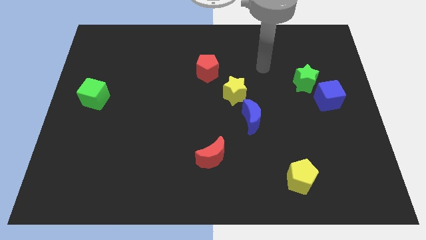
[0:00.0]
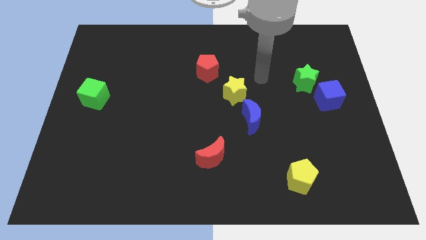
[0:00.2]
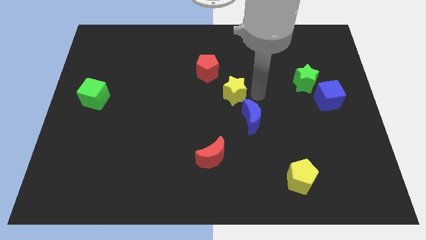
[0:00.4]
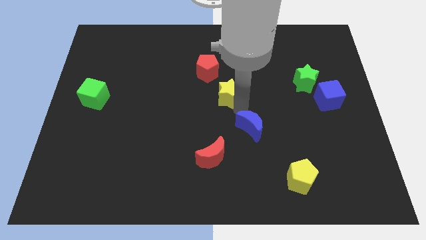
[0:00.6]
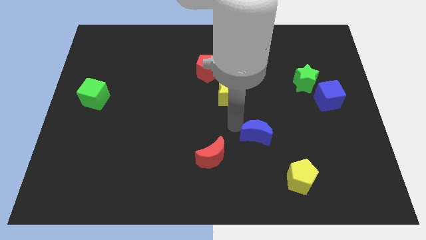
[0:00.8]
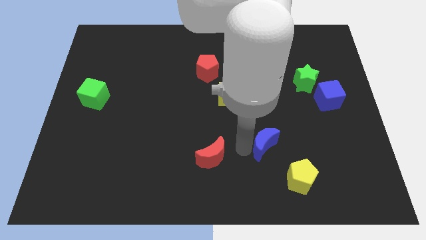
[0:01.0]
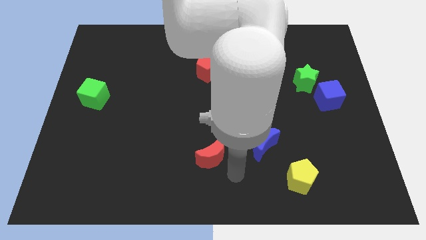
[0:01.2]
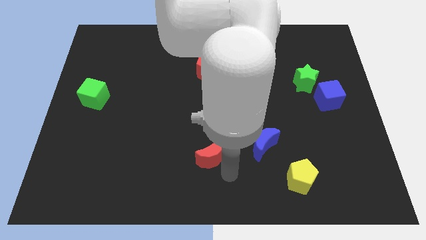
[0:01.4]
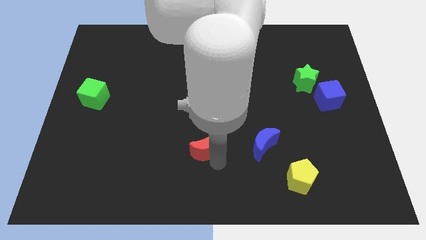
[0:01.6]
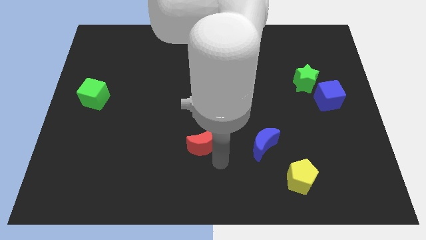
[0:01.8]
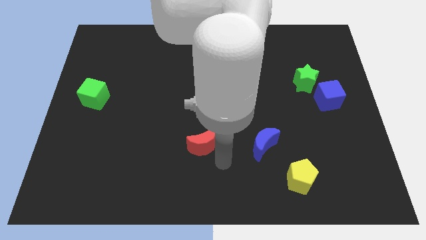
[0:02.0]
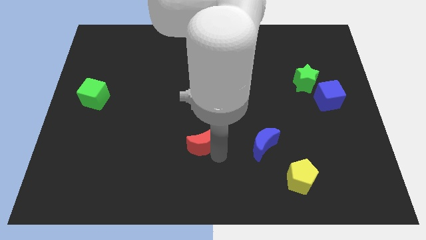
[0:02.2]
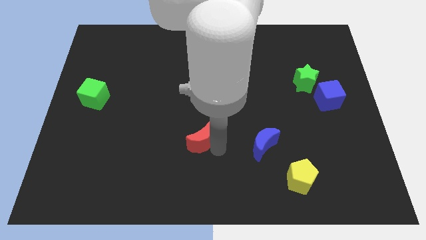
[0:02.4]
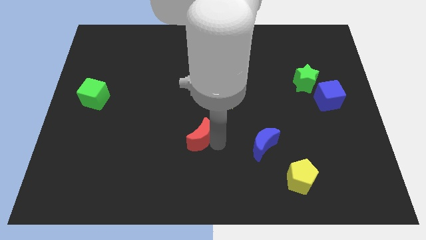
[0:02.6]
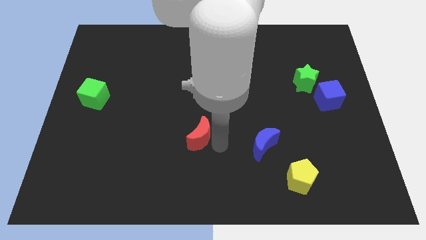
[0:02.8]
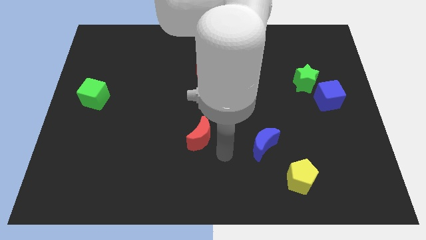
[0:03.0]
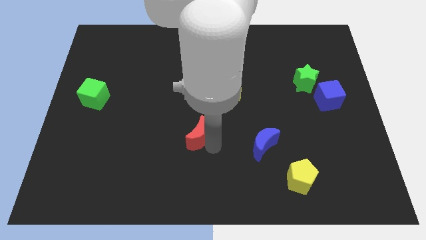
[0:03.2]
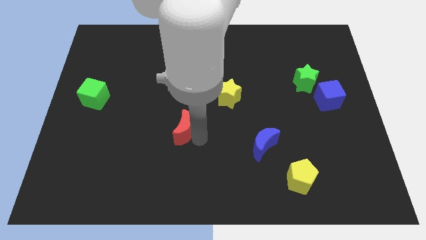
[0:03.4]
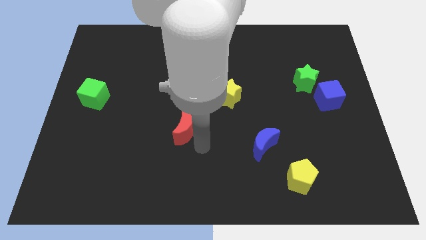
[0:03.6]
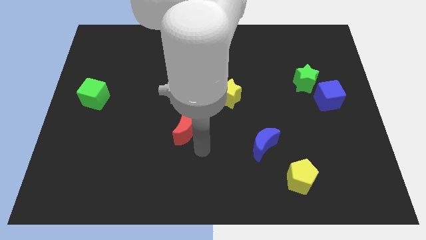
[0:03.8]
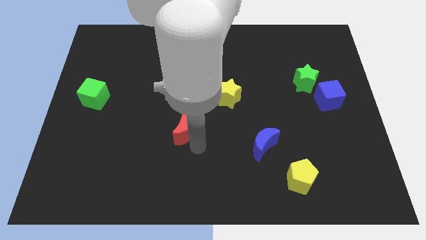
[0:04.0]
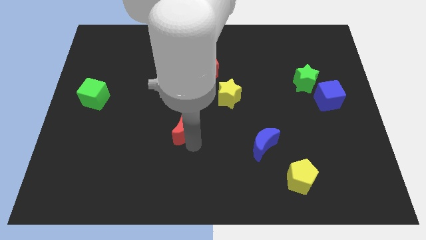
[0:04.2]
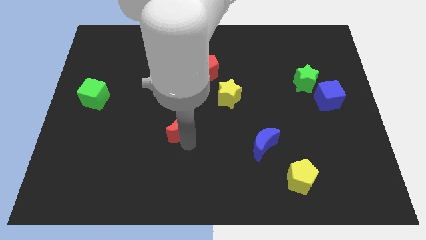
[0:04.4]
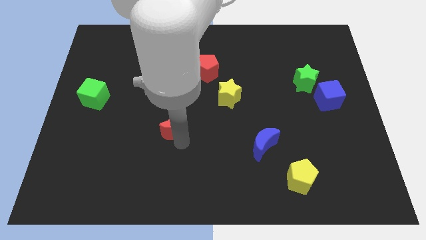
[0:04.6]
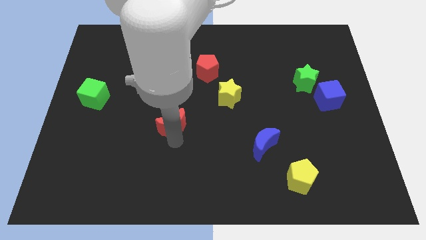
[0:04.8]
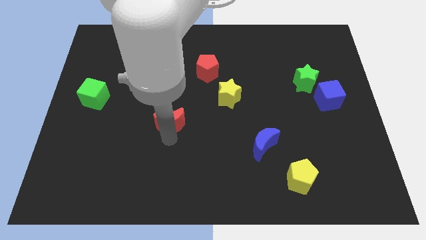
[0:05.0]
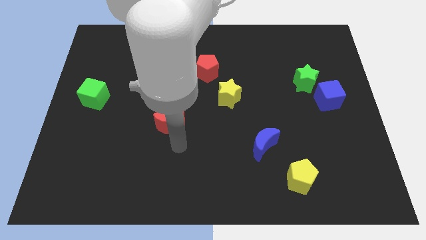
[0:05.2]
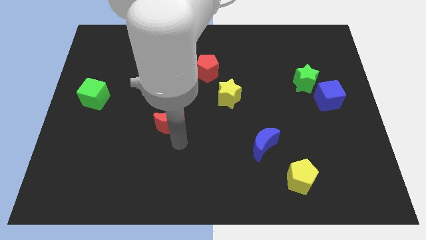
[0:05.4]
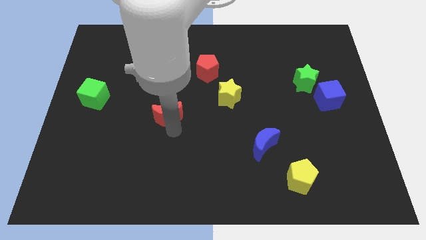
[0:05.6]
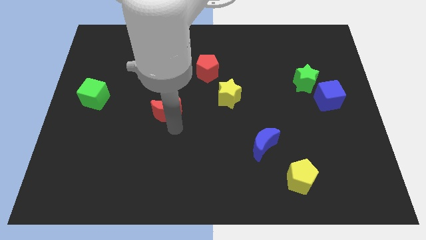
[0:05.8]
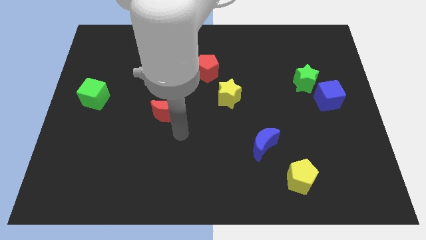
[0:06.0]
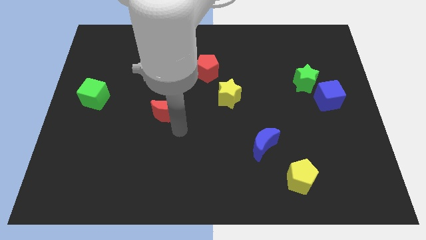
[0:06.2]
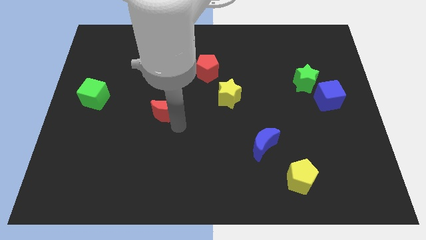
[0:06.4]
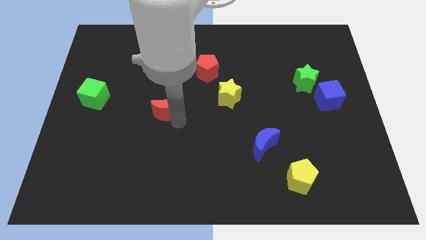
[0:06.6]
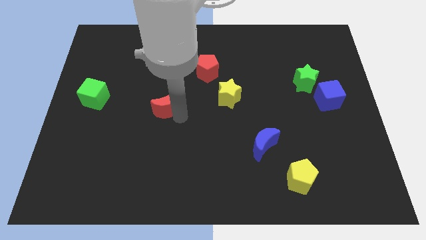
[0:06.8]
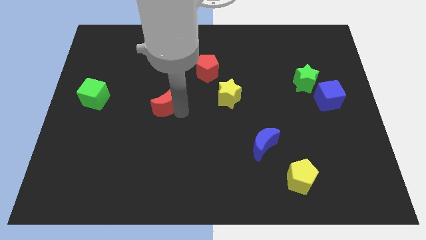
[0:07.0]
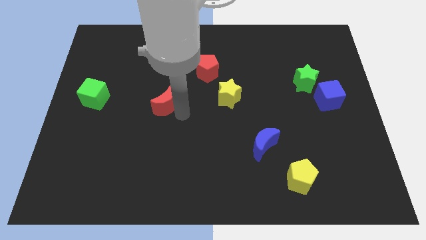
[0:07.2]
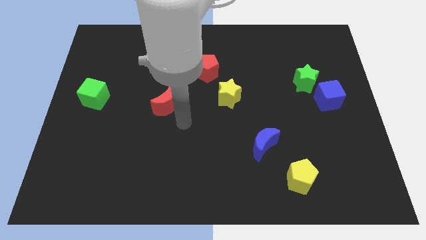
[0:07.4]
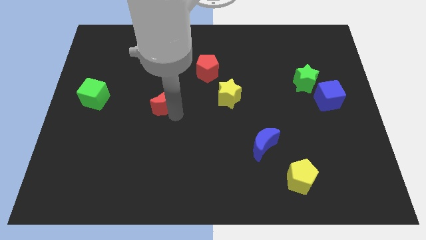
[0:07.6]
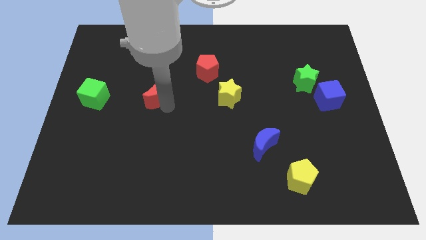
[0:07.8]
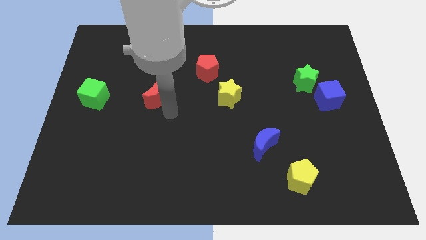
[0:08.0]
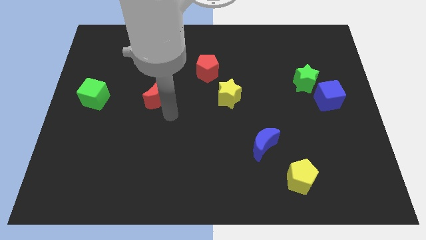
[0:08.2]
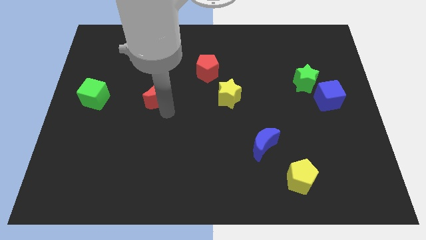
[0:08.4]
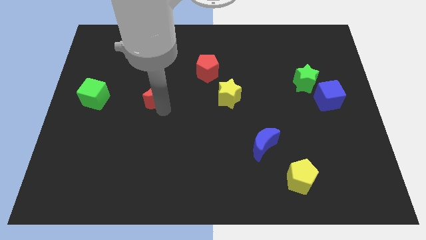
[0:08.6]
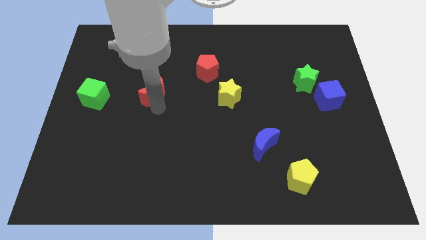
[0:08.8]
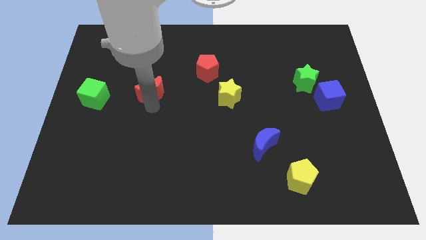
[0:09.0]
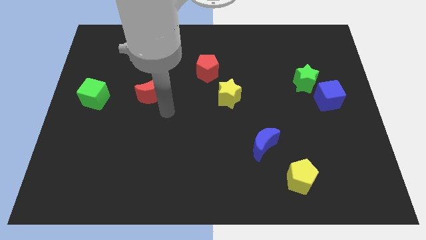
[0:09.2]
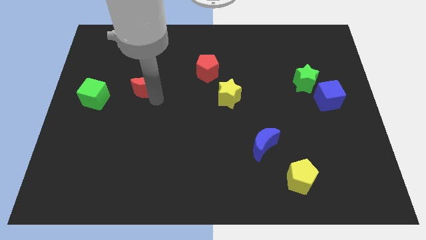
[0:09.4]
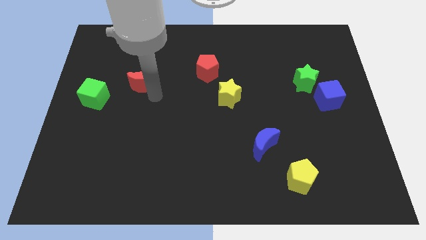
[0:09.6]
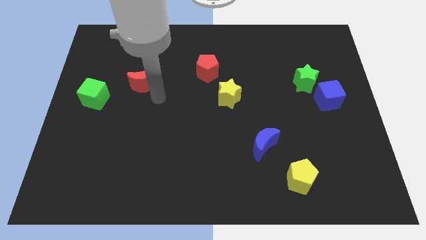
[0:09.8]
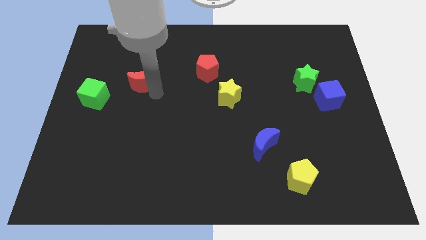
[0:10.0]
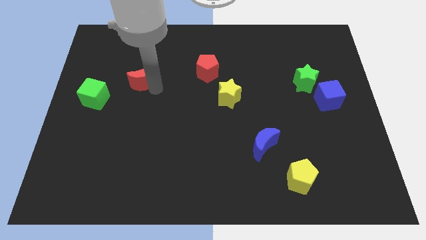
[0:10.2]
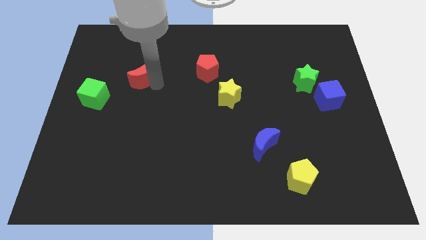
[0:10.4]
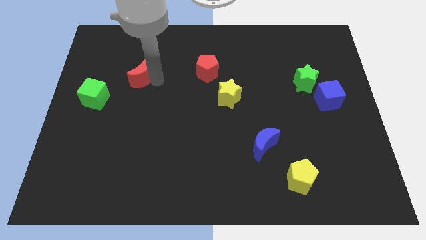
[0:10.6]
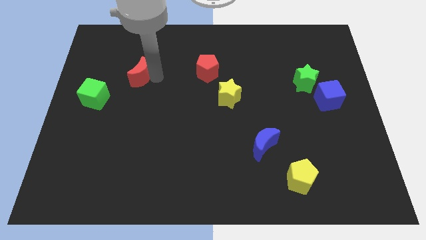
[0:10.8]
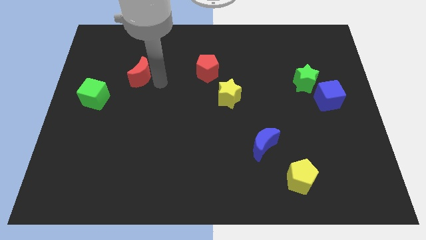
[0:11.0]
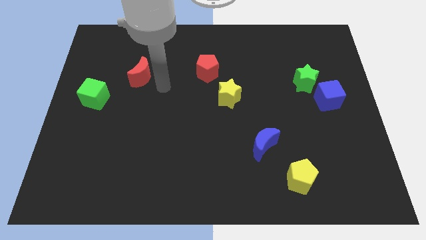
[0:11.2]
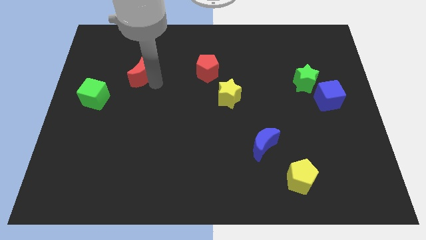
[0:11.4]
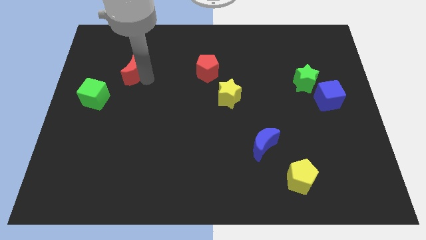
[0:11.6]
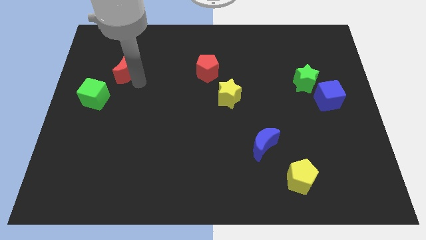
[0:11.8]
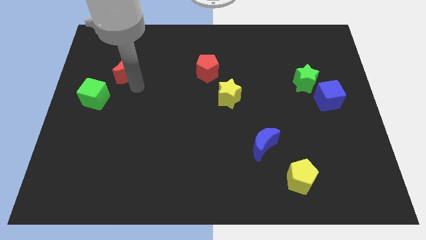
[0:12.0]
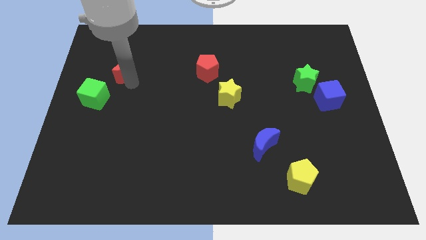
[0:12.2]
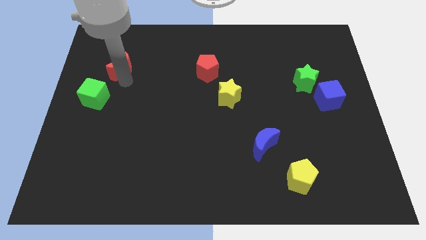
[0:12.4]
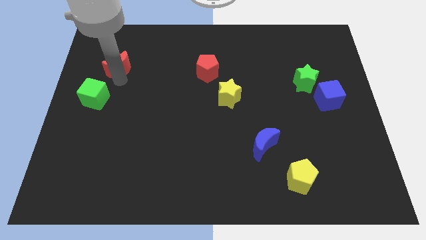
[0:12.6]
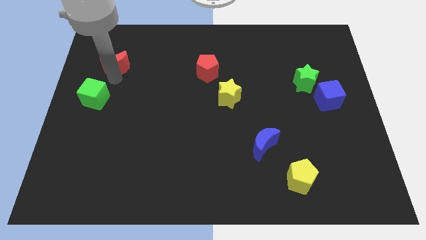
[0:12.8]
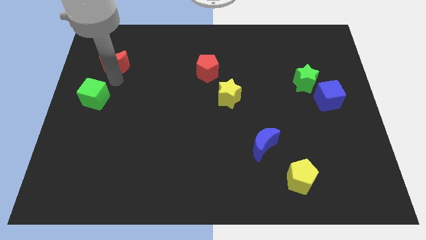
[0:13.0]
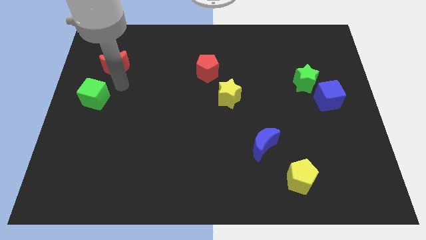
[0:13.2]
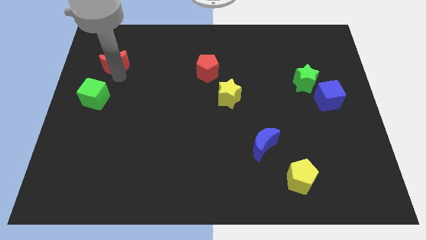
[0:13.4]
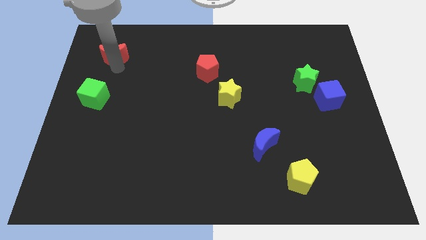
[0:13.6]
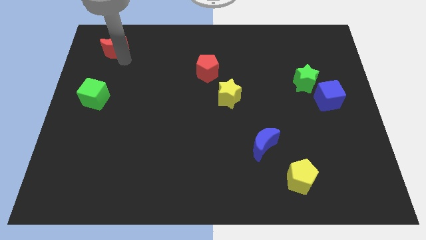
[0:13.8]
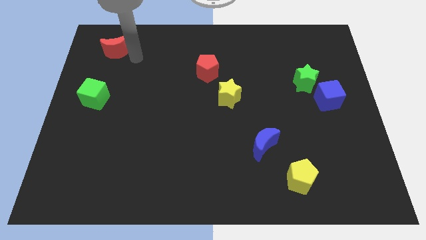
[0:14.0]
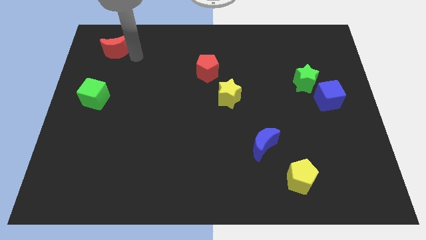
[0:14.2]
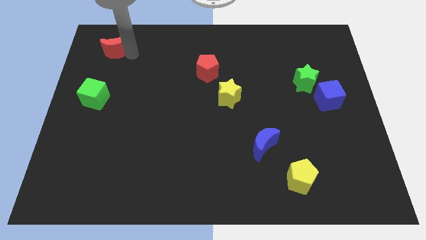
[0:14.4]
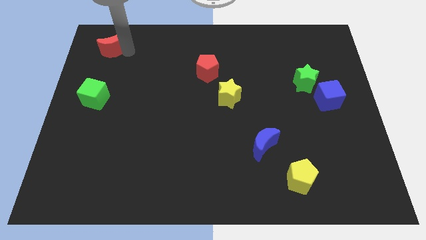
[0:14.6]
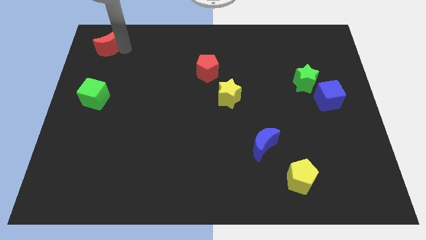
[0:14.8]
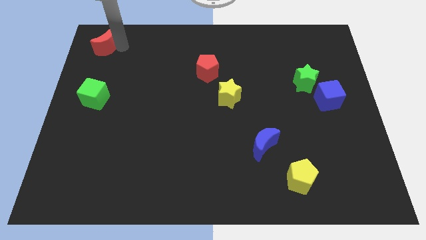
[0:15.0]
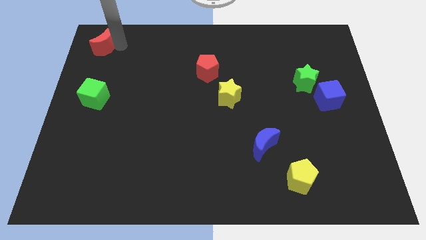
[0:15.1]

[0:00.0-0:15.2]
push the red moon to the upper left corner

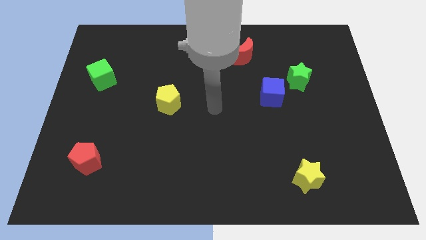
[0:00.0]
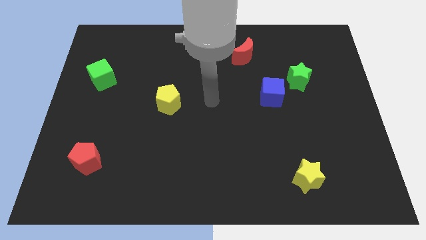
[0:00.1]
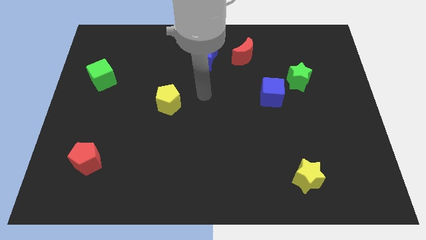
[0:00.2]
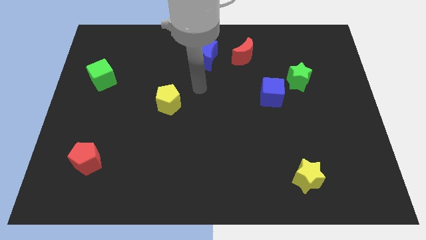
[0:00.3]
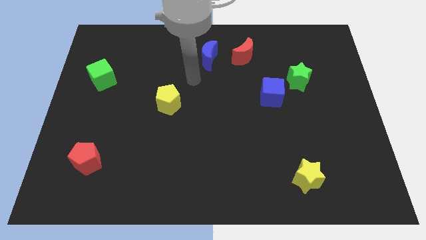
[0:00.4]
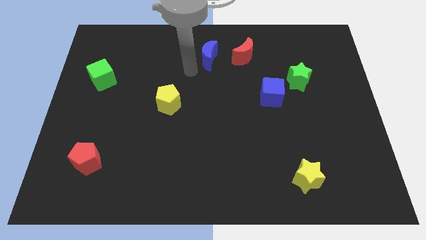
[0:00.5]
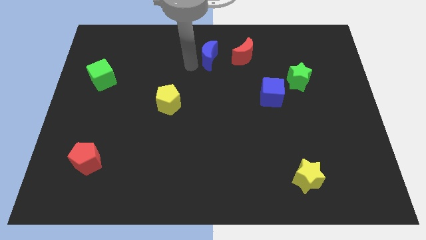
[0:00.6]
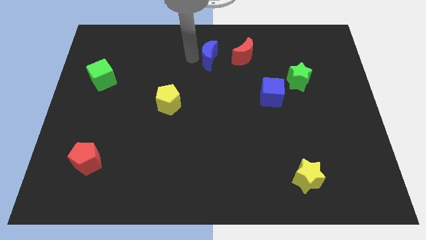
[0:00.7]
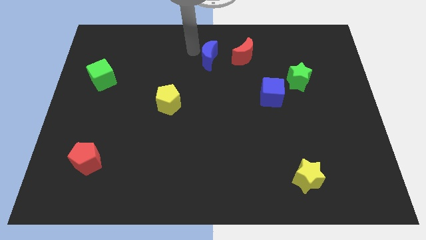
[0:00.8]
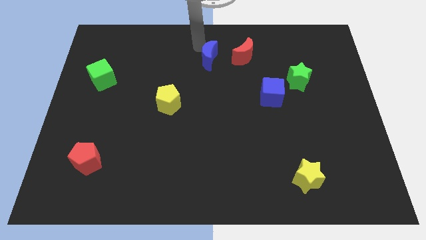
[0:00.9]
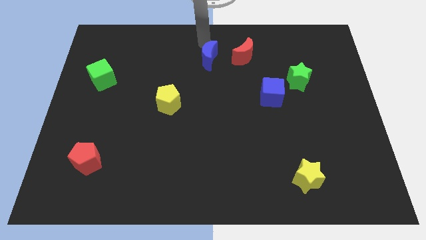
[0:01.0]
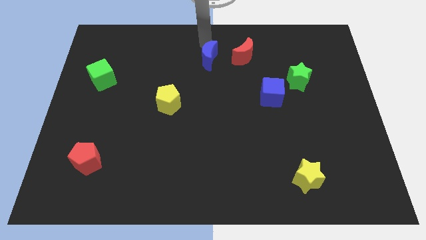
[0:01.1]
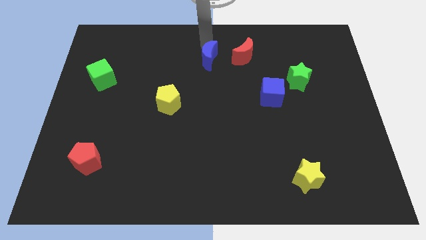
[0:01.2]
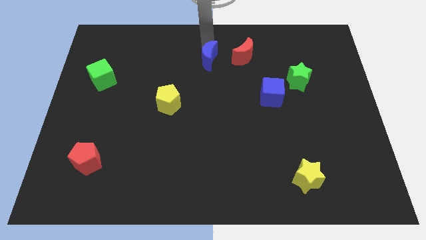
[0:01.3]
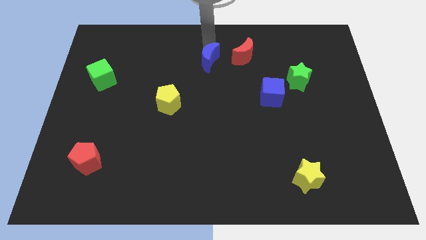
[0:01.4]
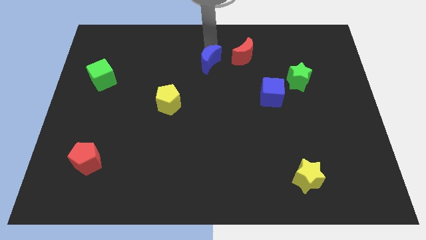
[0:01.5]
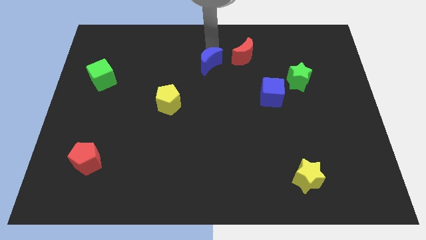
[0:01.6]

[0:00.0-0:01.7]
move the blue moon to the middle of the board
